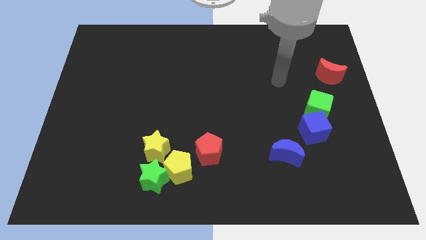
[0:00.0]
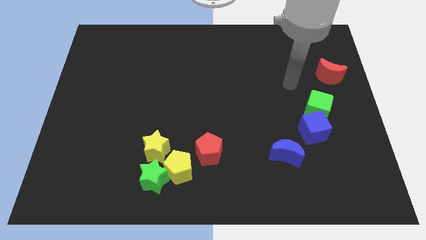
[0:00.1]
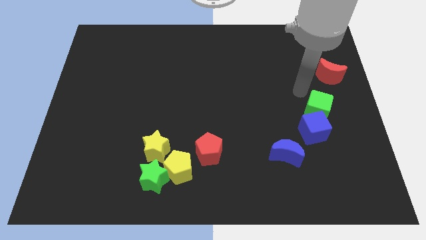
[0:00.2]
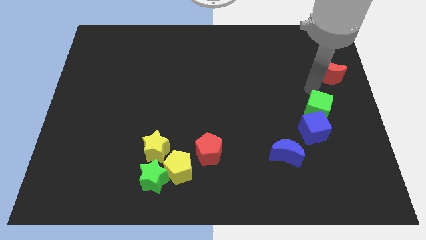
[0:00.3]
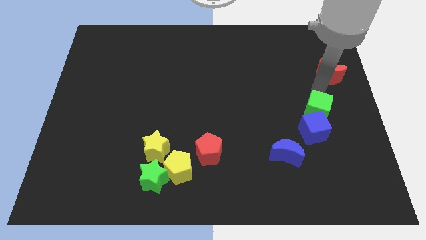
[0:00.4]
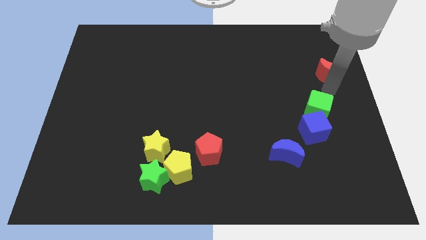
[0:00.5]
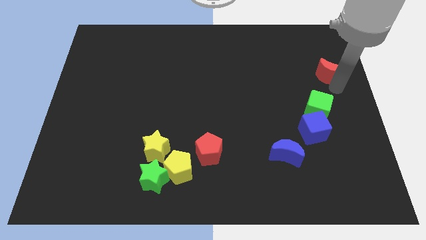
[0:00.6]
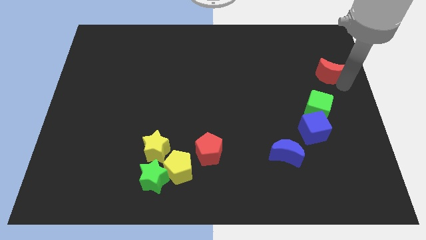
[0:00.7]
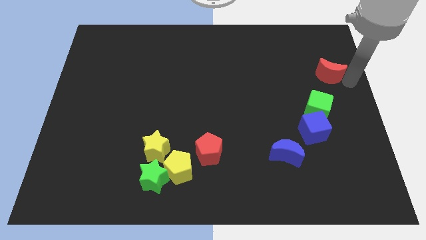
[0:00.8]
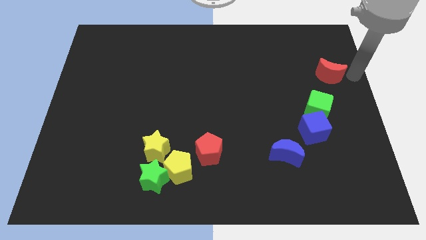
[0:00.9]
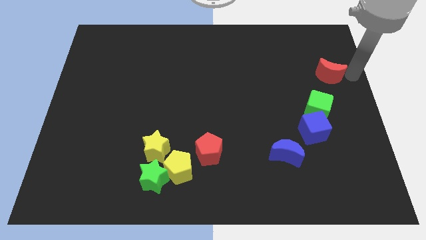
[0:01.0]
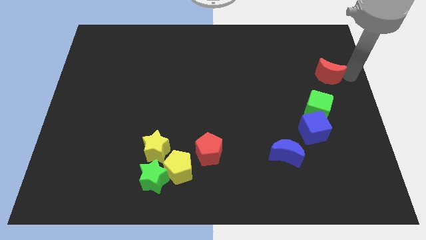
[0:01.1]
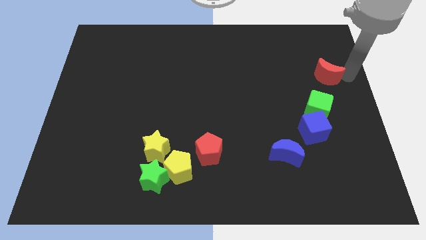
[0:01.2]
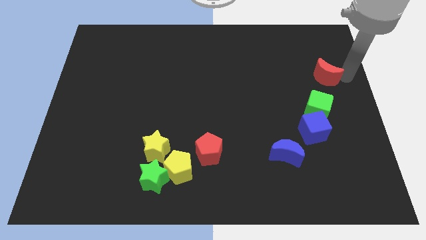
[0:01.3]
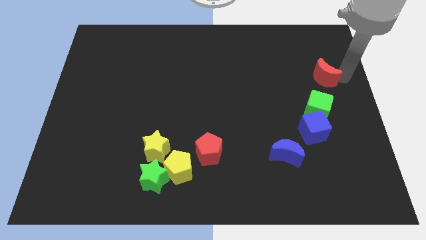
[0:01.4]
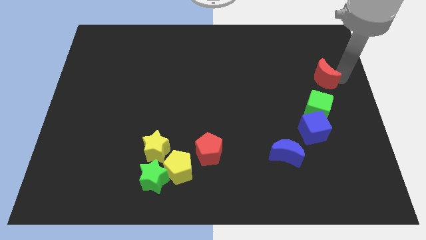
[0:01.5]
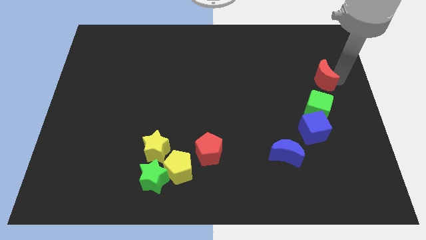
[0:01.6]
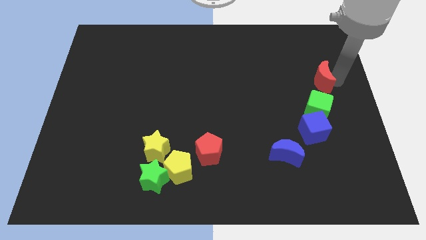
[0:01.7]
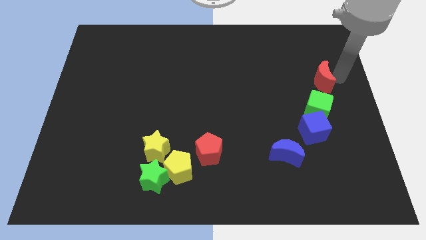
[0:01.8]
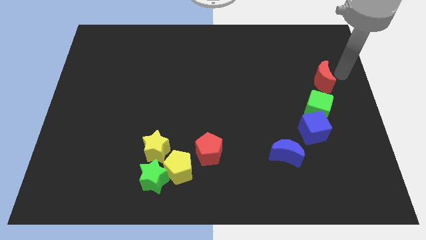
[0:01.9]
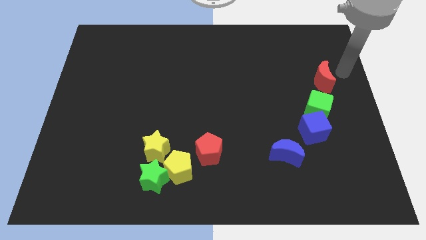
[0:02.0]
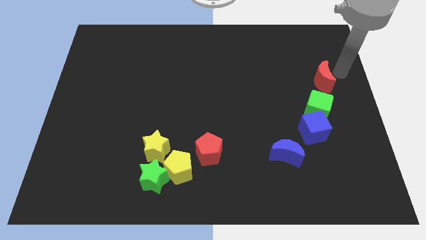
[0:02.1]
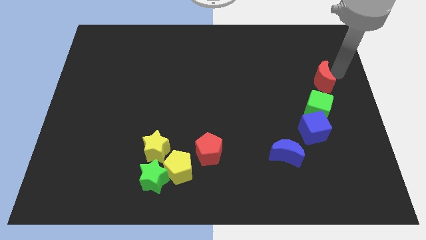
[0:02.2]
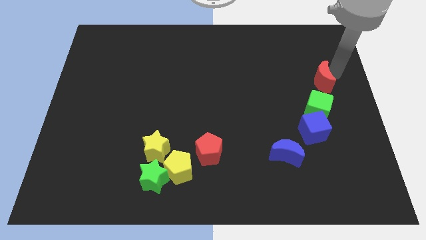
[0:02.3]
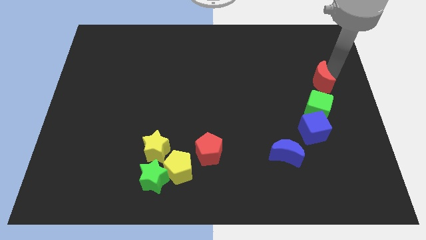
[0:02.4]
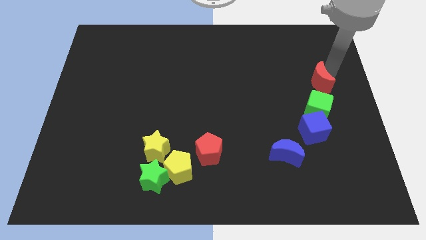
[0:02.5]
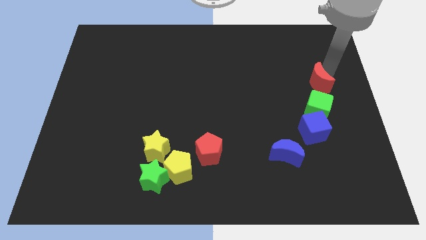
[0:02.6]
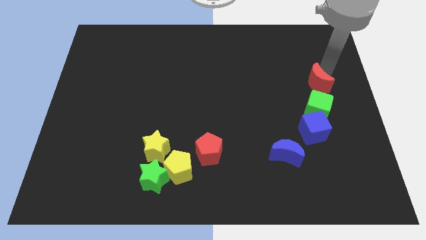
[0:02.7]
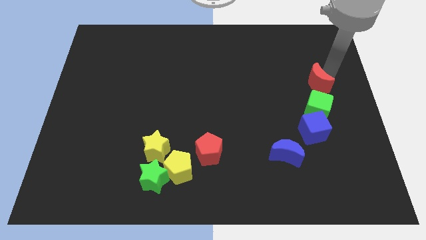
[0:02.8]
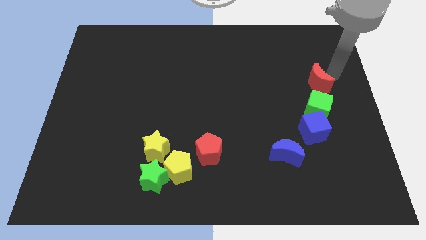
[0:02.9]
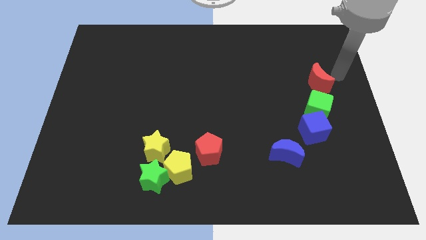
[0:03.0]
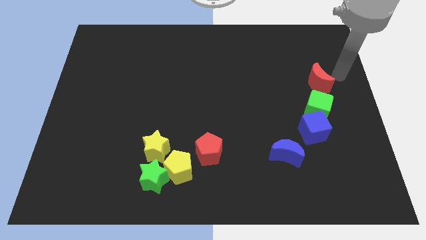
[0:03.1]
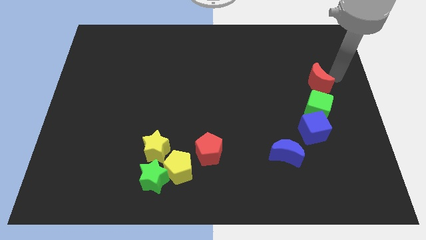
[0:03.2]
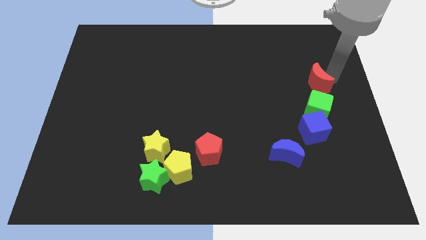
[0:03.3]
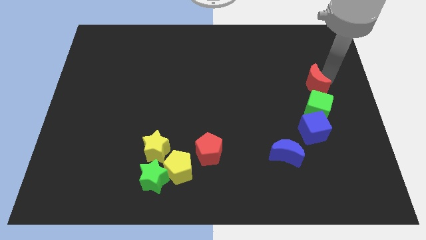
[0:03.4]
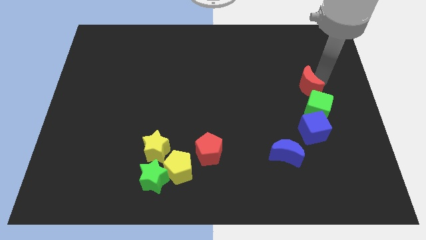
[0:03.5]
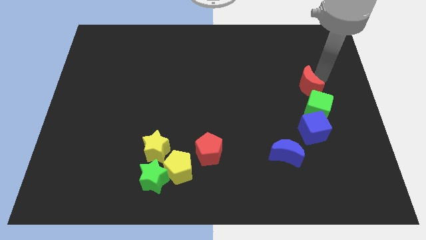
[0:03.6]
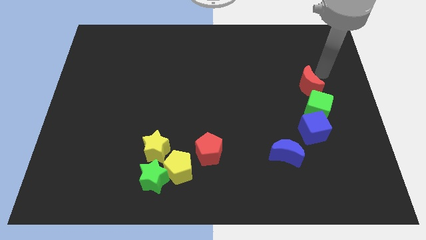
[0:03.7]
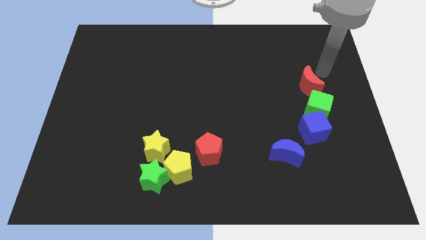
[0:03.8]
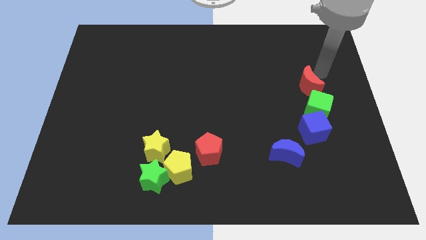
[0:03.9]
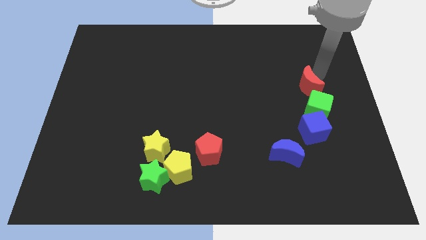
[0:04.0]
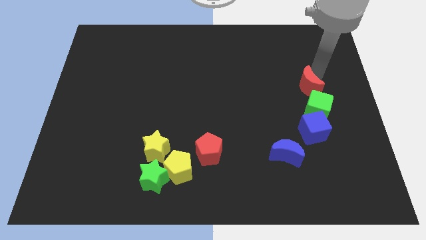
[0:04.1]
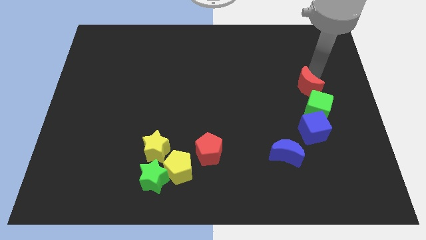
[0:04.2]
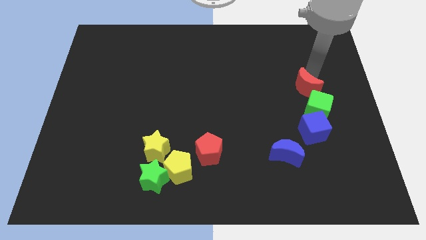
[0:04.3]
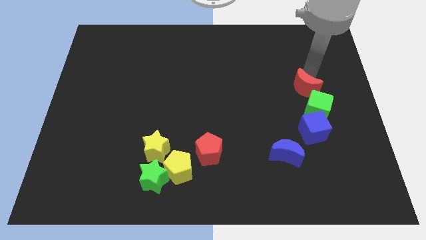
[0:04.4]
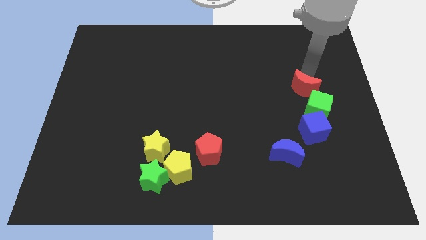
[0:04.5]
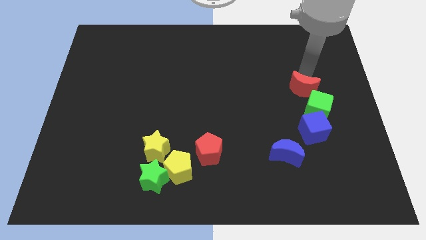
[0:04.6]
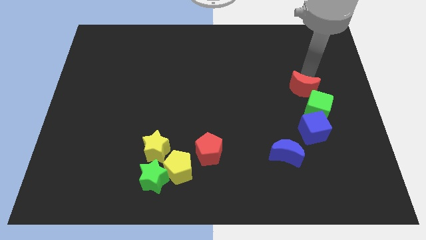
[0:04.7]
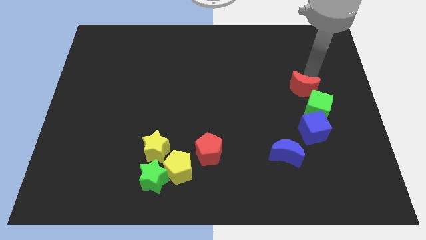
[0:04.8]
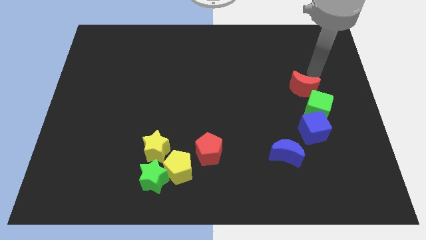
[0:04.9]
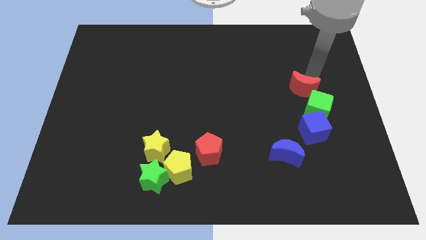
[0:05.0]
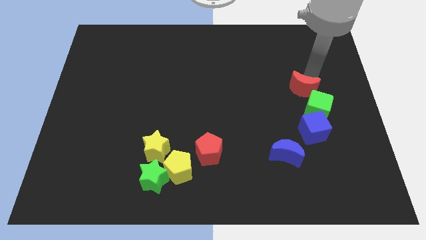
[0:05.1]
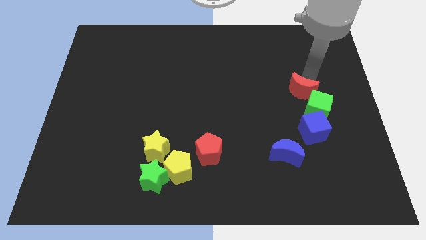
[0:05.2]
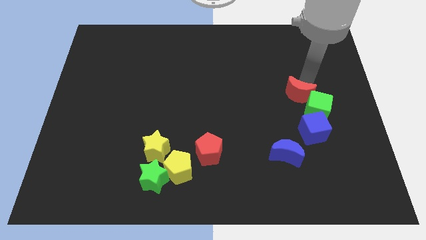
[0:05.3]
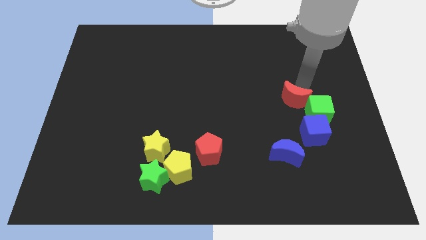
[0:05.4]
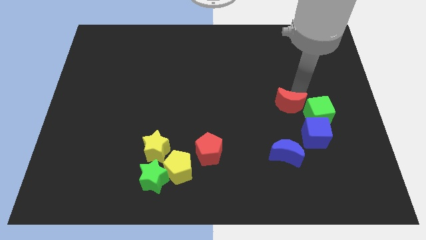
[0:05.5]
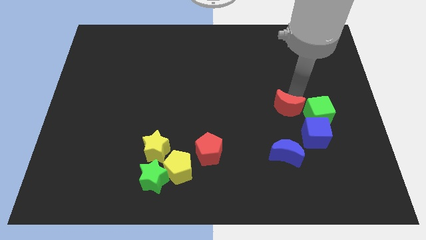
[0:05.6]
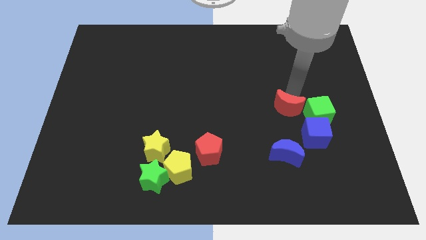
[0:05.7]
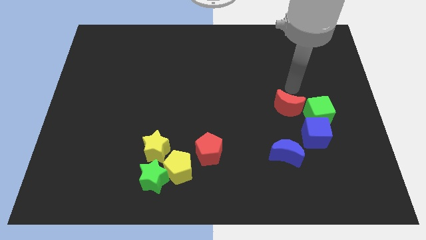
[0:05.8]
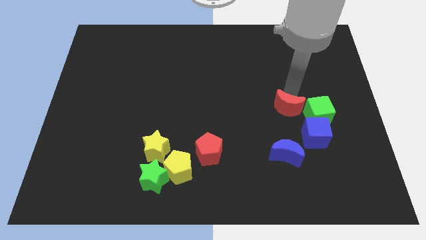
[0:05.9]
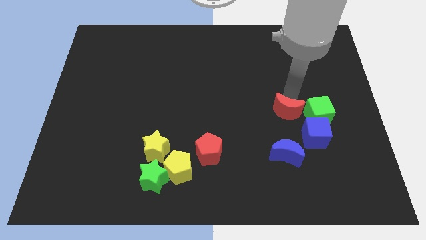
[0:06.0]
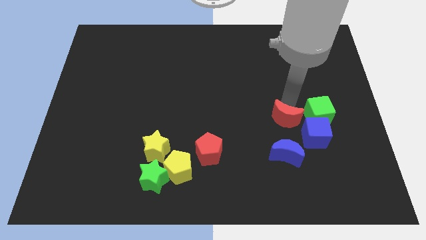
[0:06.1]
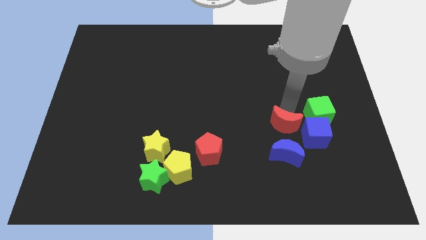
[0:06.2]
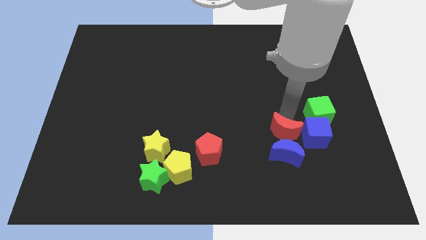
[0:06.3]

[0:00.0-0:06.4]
slide the red moon close to the blue moon

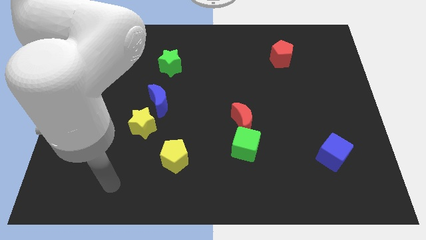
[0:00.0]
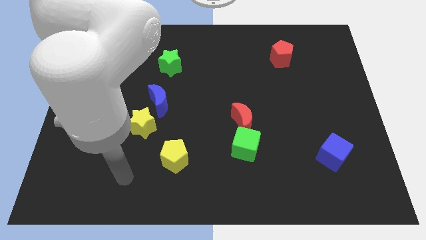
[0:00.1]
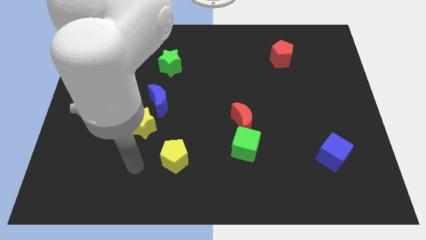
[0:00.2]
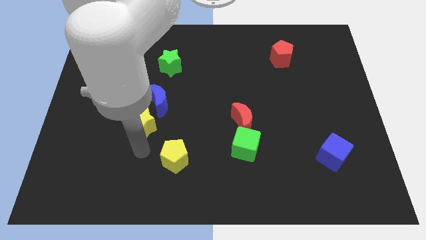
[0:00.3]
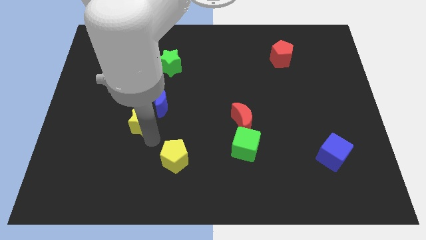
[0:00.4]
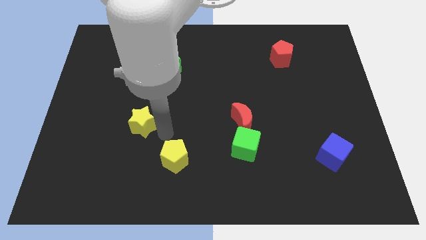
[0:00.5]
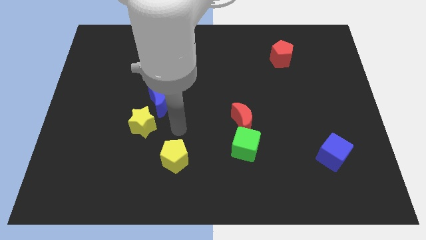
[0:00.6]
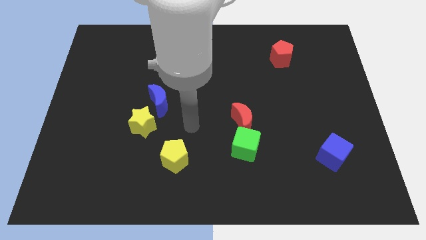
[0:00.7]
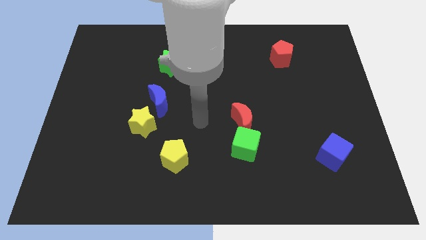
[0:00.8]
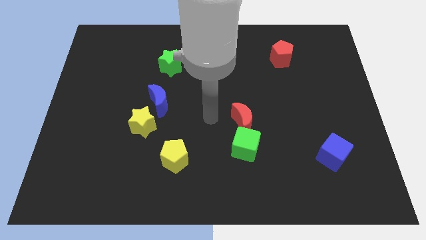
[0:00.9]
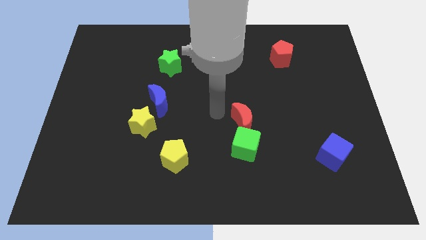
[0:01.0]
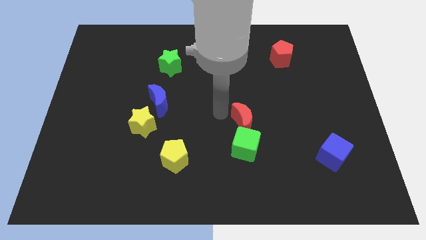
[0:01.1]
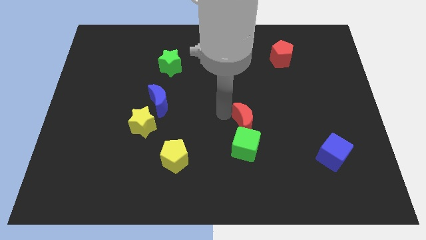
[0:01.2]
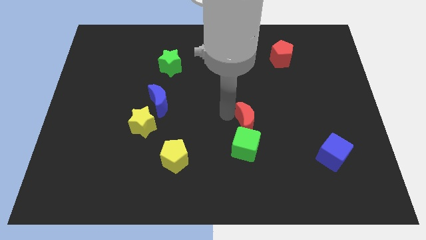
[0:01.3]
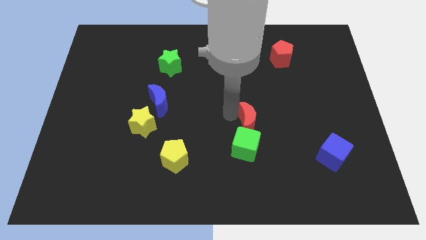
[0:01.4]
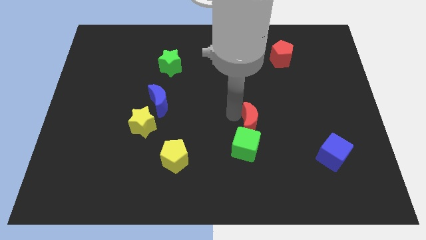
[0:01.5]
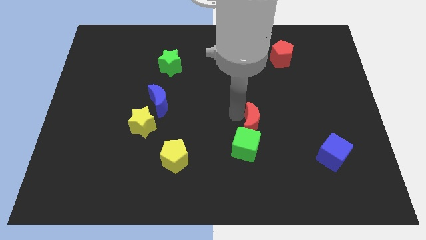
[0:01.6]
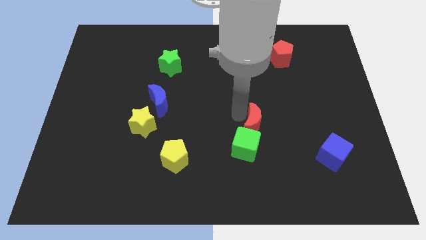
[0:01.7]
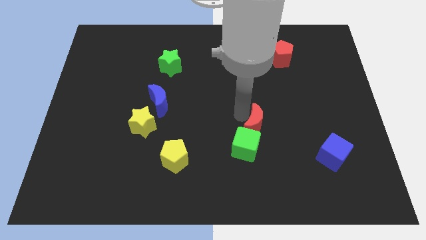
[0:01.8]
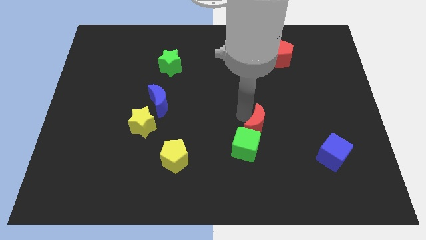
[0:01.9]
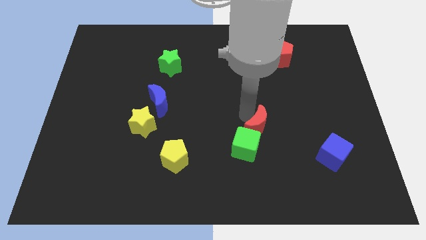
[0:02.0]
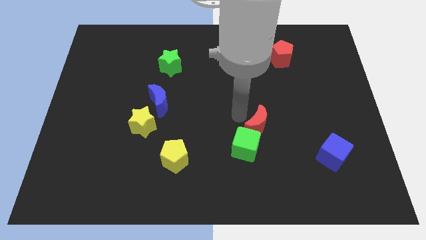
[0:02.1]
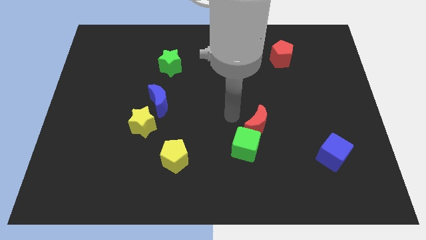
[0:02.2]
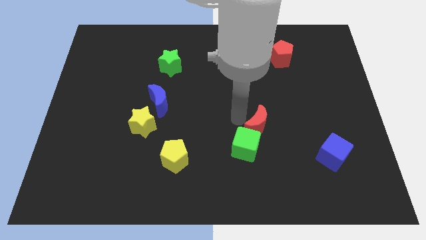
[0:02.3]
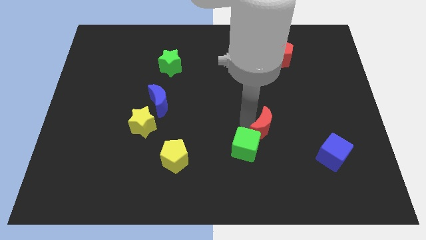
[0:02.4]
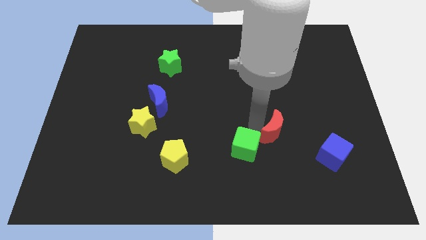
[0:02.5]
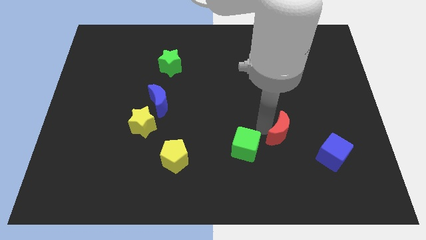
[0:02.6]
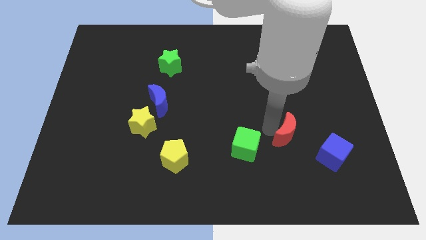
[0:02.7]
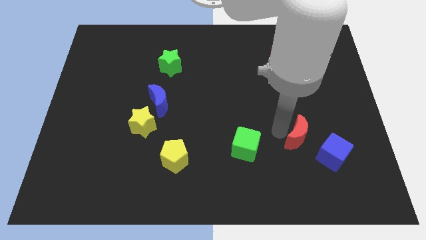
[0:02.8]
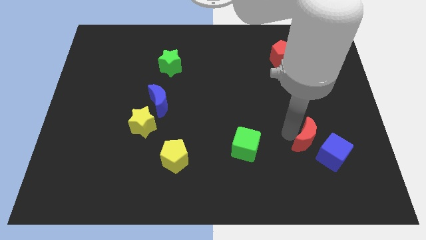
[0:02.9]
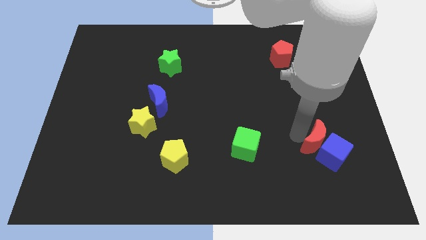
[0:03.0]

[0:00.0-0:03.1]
put the red moon close to the blue cube
